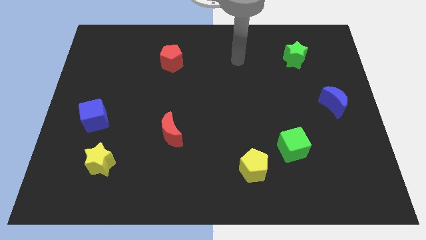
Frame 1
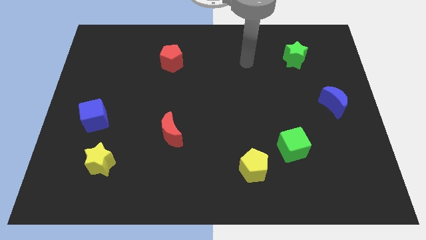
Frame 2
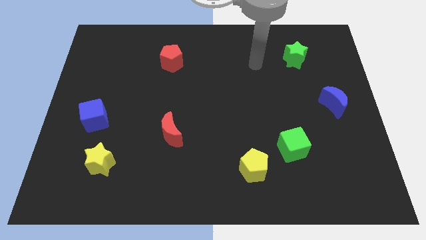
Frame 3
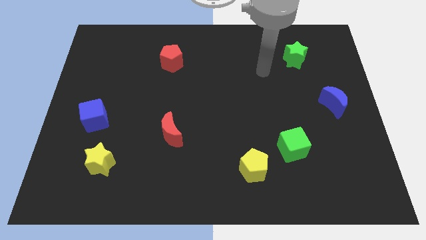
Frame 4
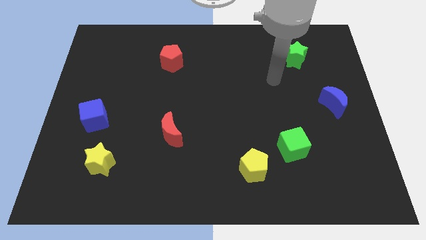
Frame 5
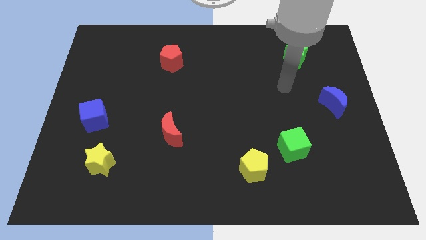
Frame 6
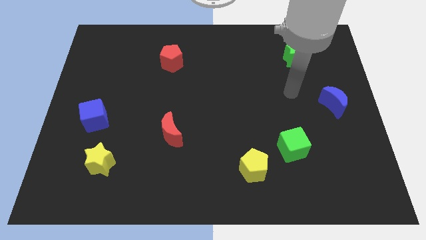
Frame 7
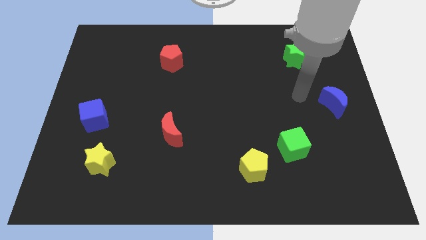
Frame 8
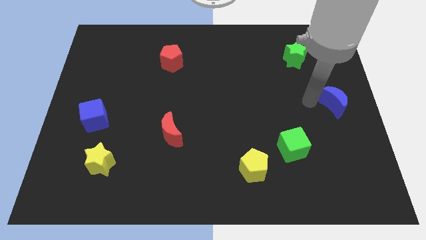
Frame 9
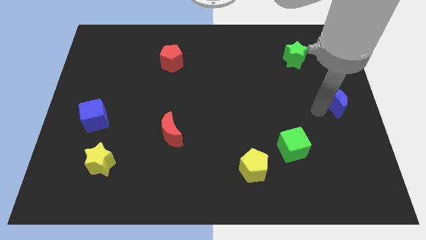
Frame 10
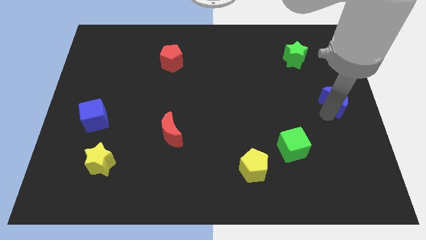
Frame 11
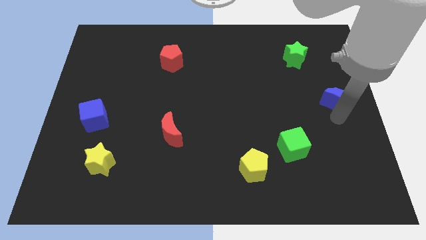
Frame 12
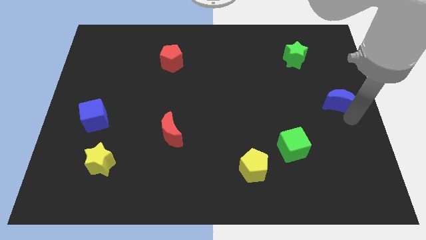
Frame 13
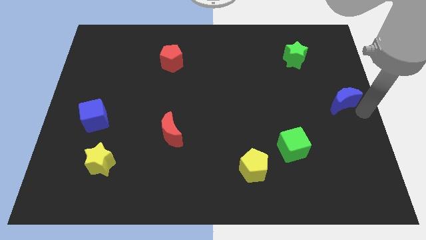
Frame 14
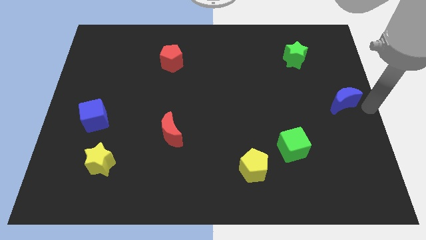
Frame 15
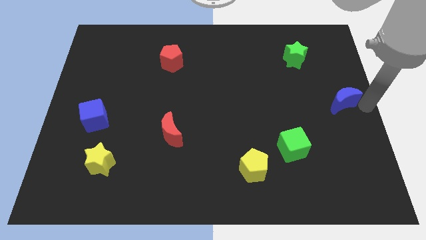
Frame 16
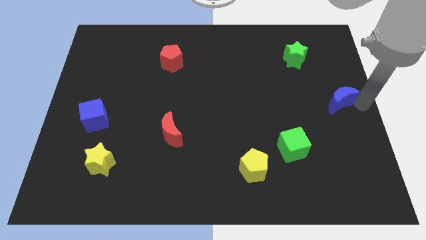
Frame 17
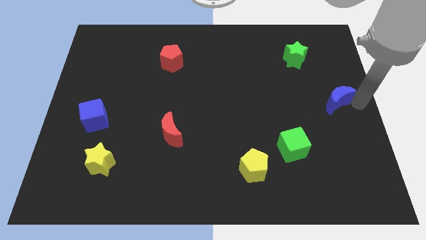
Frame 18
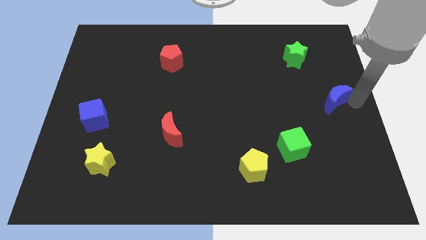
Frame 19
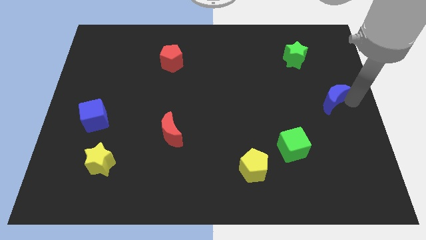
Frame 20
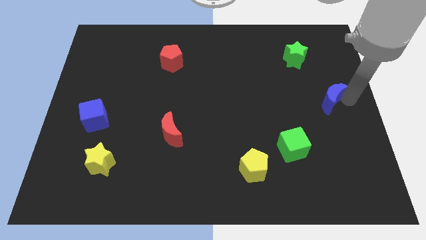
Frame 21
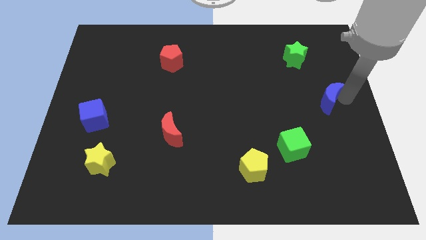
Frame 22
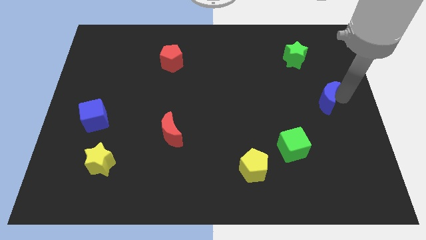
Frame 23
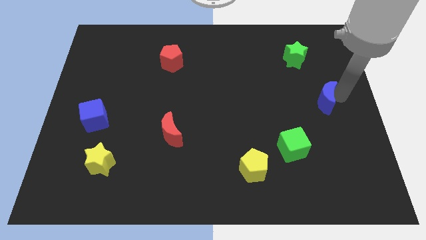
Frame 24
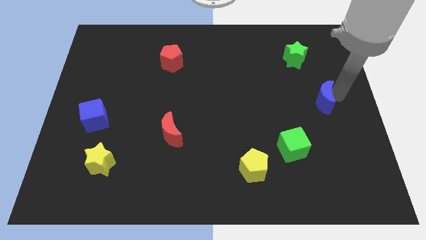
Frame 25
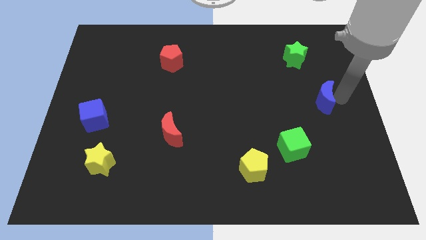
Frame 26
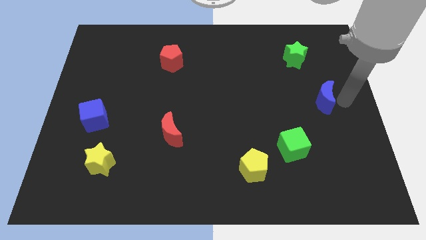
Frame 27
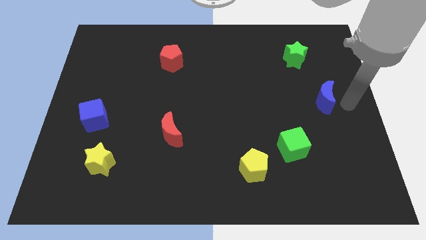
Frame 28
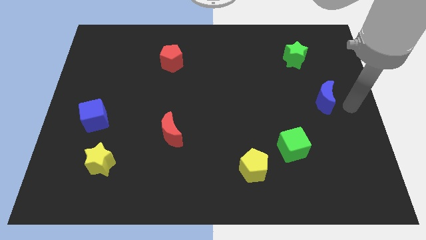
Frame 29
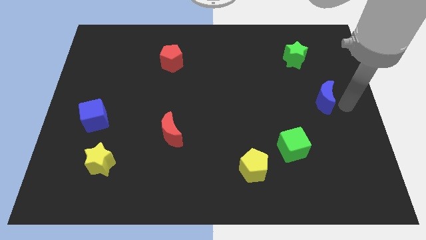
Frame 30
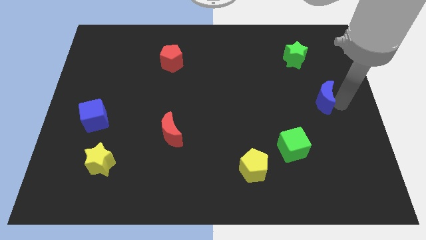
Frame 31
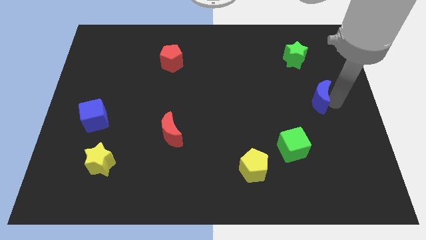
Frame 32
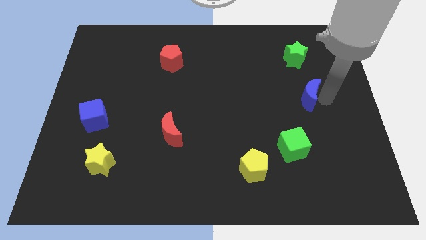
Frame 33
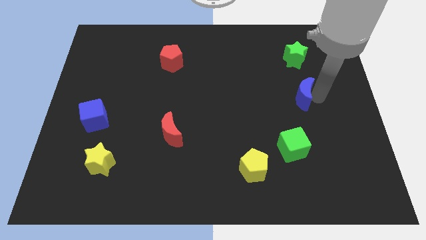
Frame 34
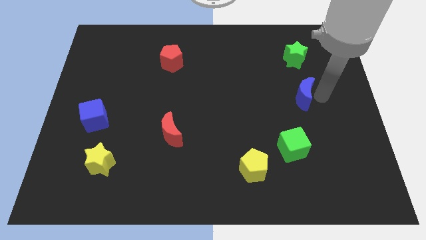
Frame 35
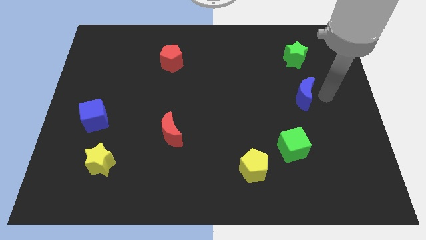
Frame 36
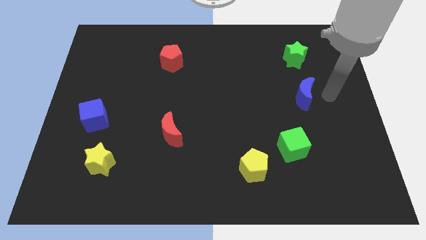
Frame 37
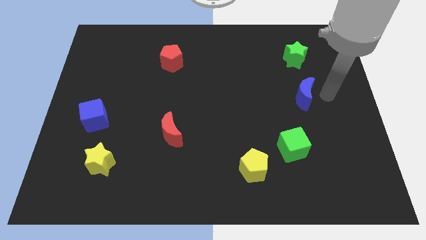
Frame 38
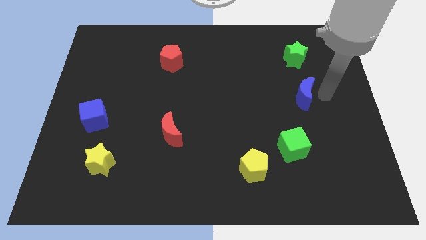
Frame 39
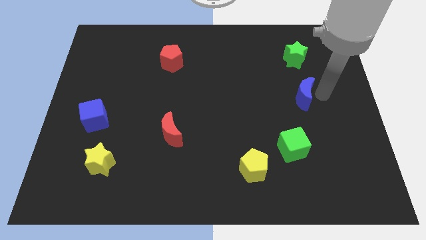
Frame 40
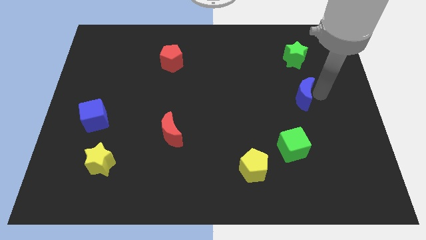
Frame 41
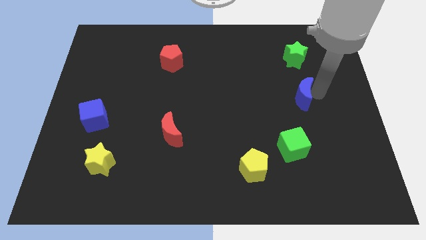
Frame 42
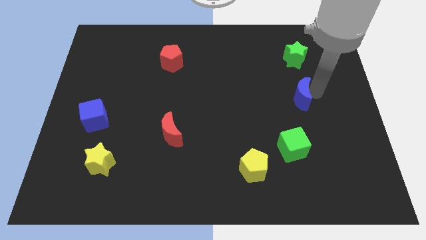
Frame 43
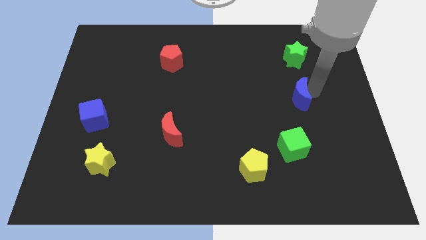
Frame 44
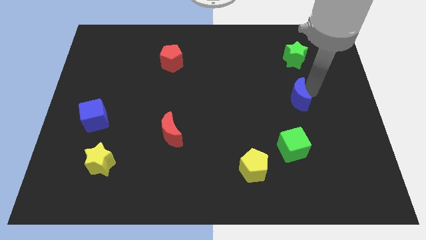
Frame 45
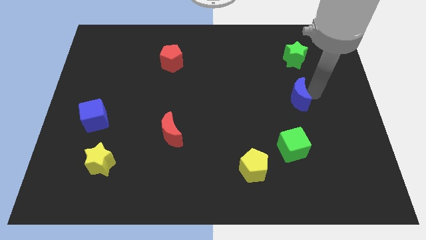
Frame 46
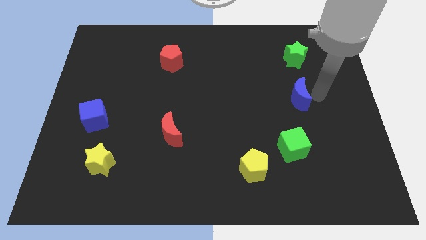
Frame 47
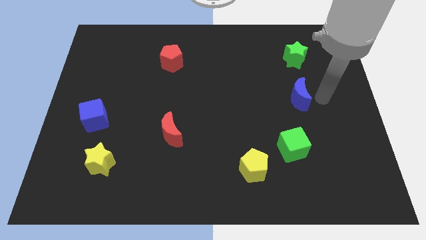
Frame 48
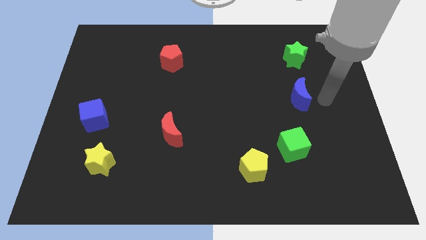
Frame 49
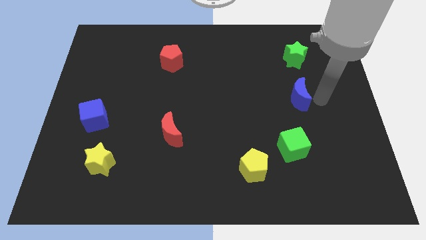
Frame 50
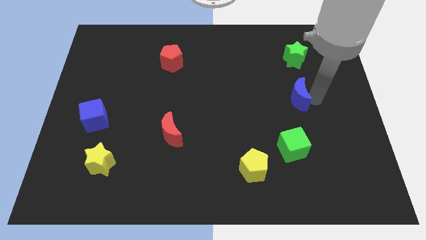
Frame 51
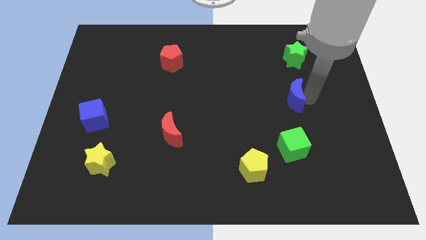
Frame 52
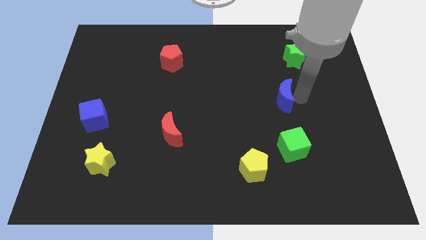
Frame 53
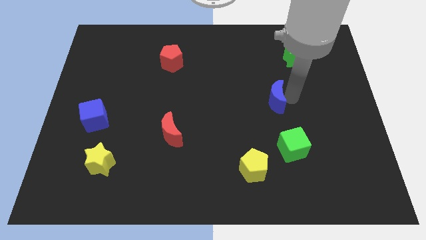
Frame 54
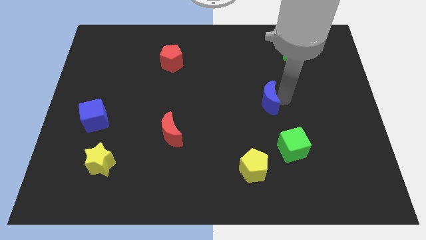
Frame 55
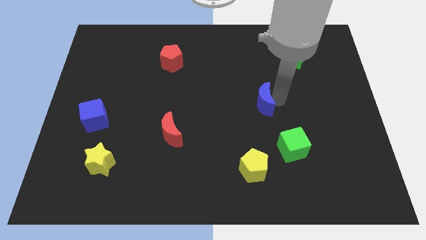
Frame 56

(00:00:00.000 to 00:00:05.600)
push the blue moon to the middle

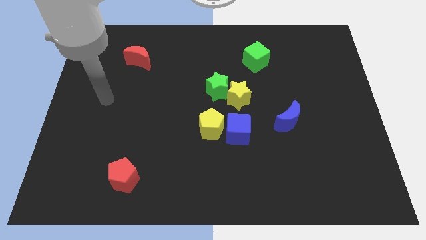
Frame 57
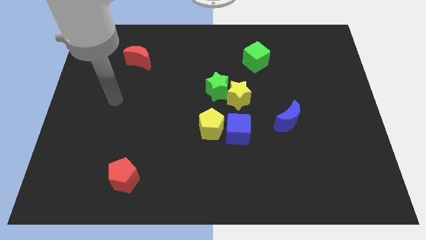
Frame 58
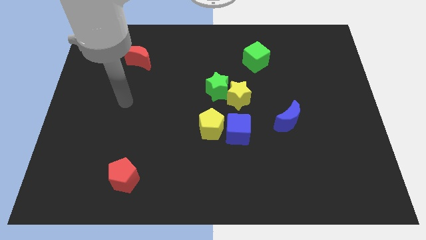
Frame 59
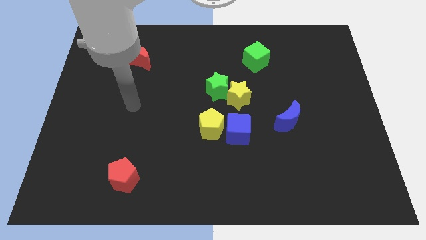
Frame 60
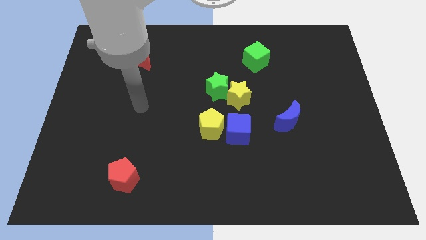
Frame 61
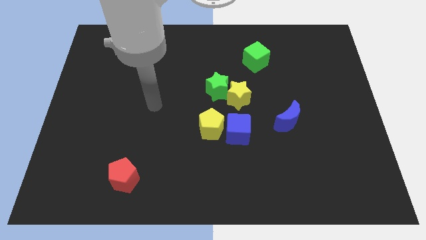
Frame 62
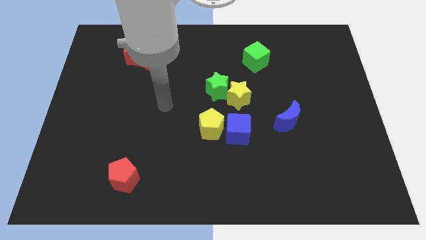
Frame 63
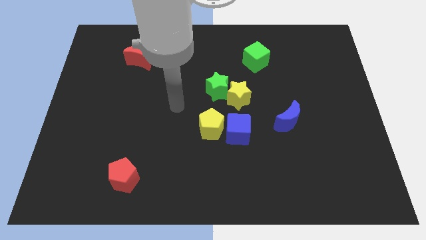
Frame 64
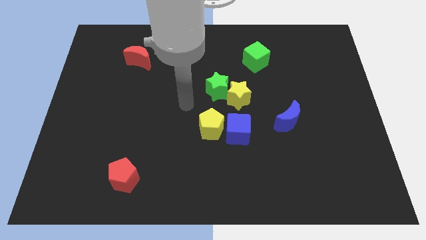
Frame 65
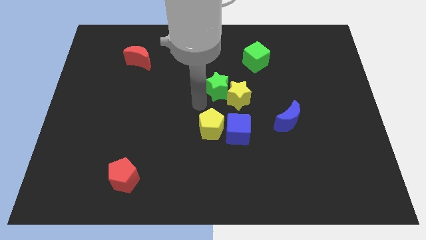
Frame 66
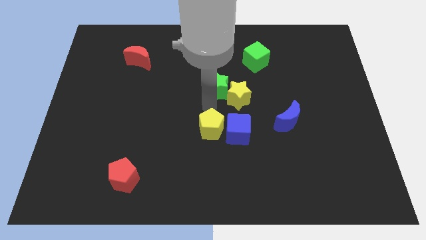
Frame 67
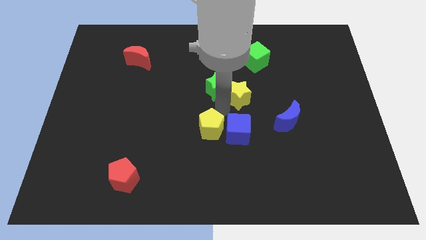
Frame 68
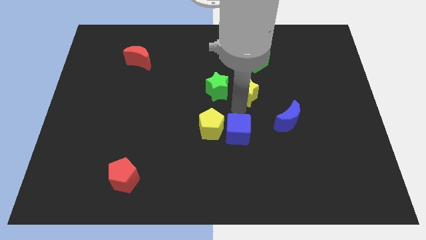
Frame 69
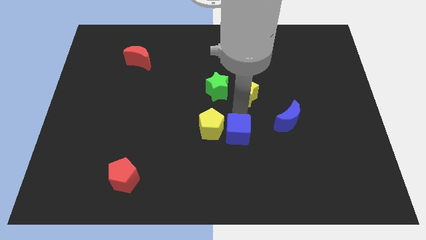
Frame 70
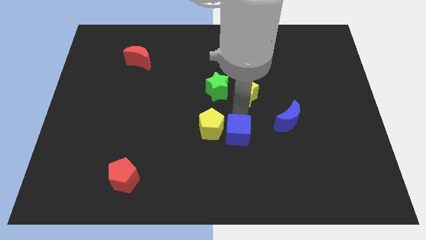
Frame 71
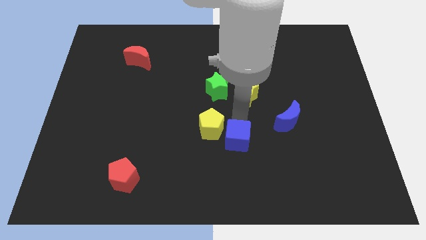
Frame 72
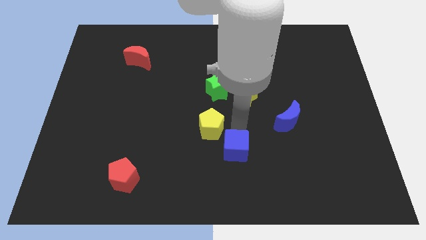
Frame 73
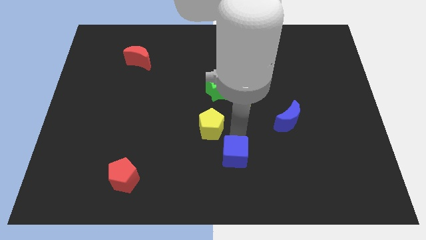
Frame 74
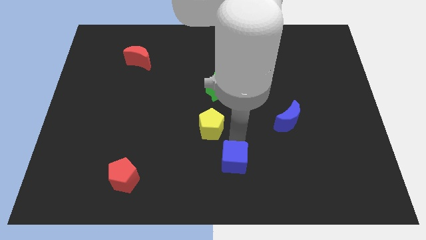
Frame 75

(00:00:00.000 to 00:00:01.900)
move the blue cube to the bottom
